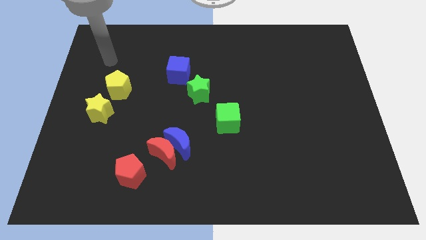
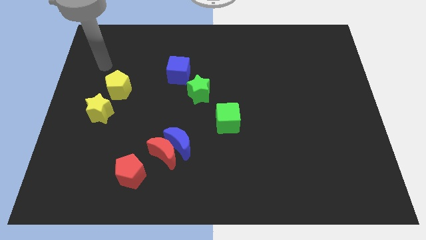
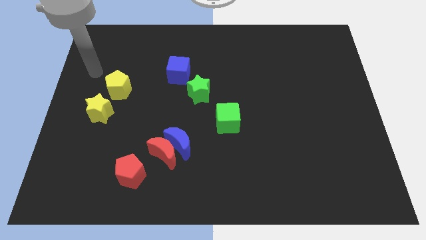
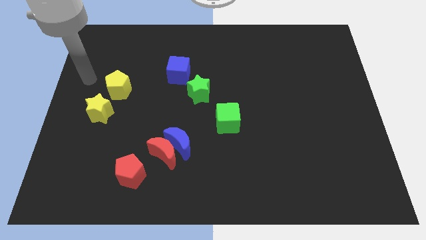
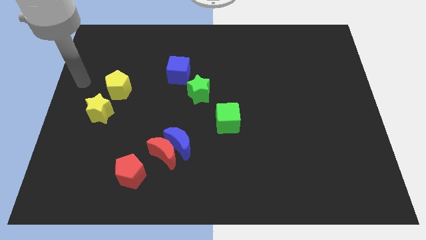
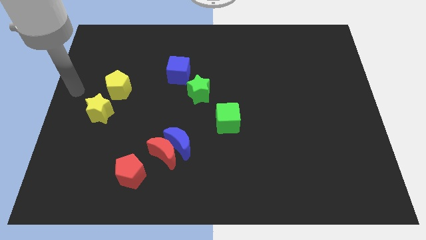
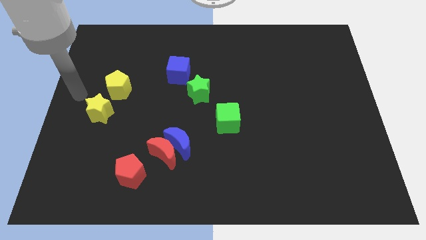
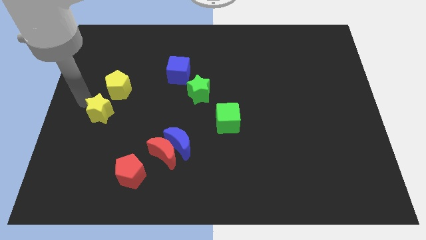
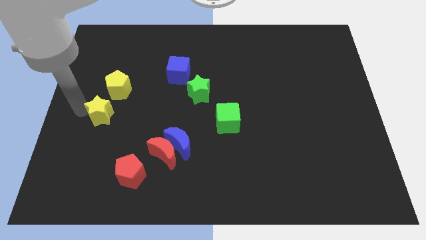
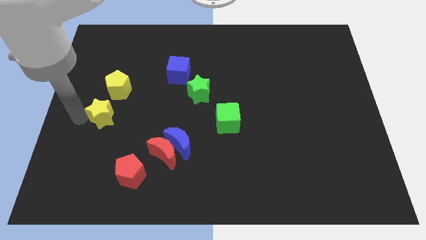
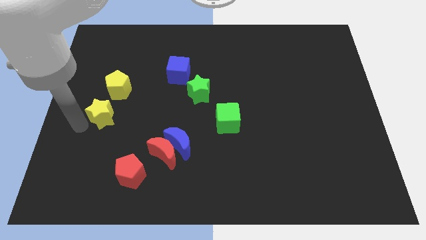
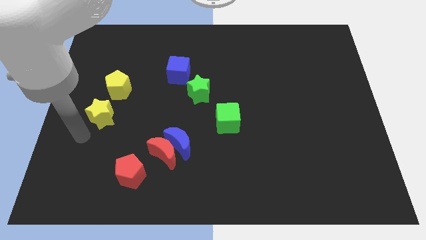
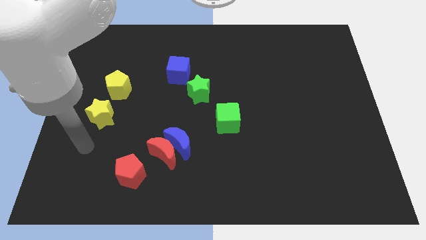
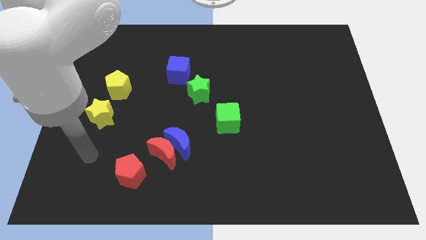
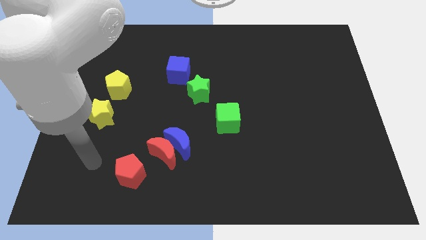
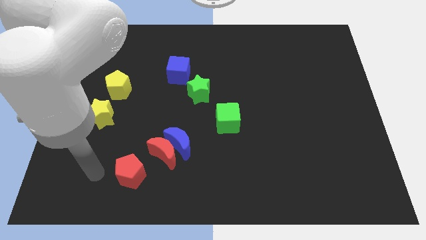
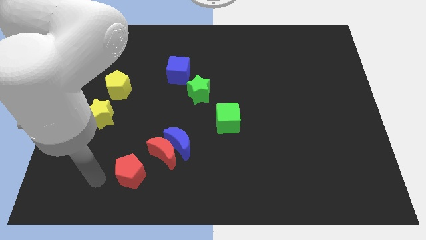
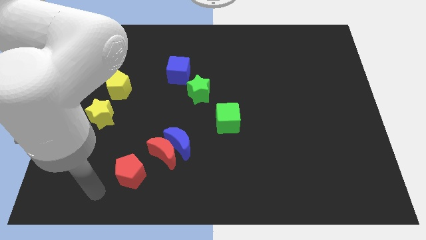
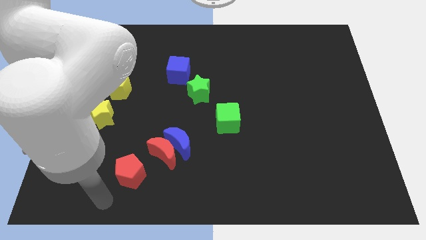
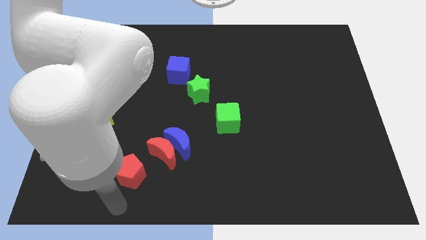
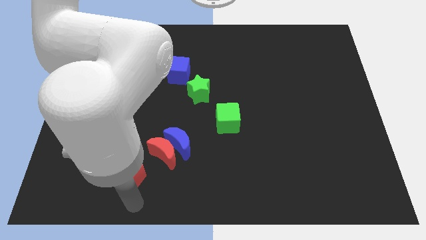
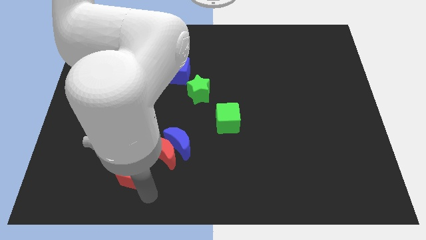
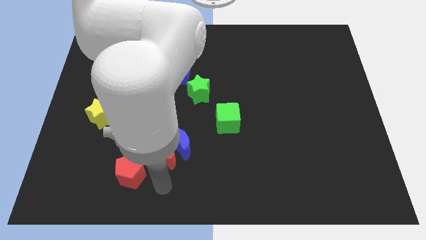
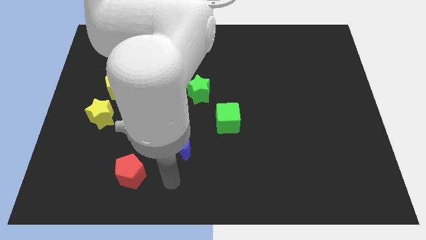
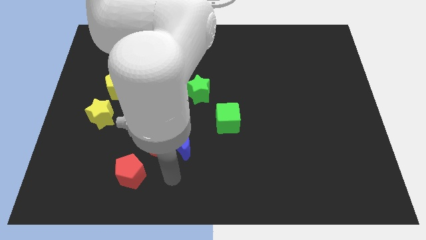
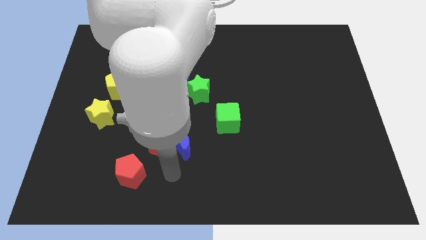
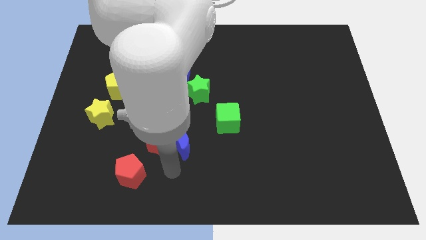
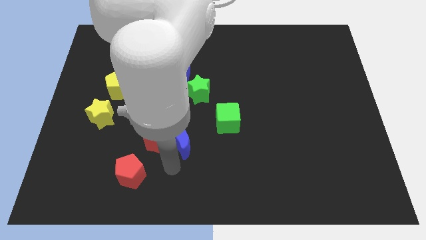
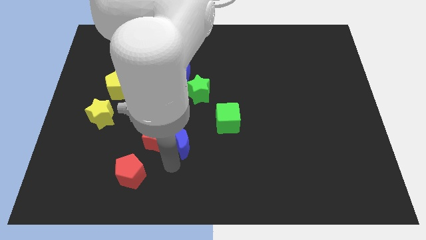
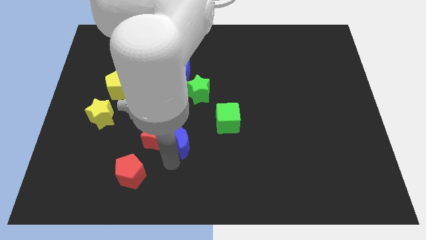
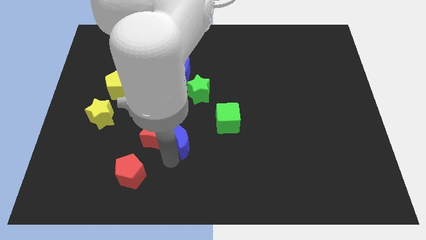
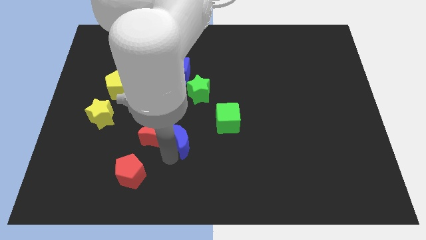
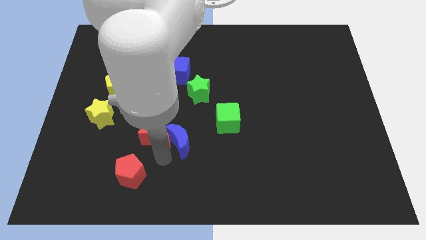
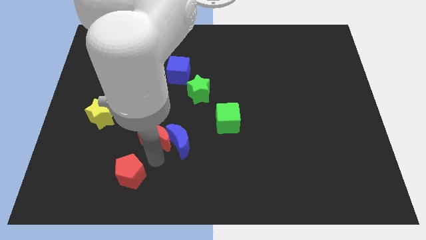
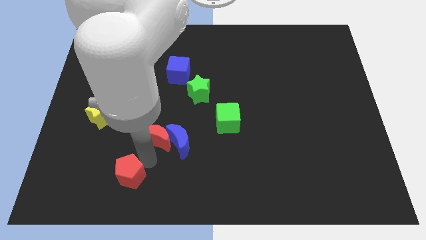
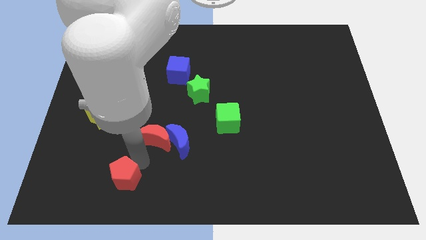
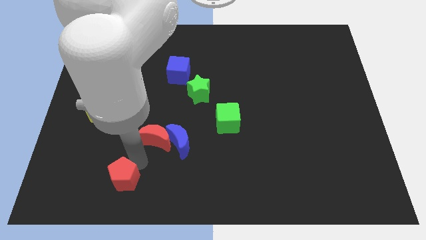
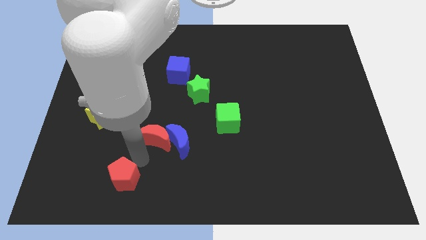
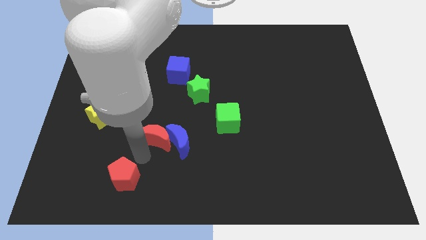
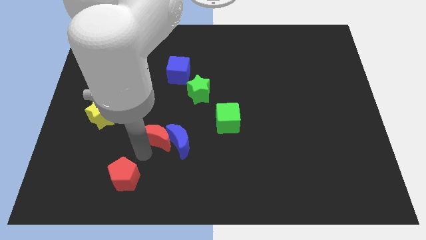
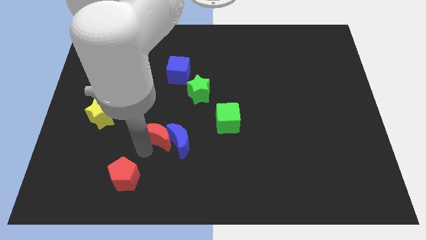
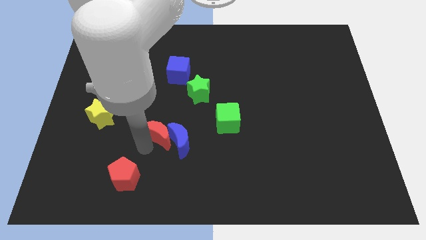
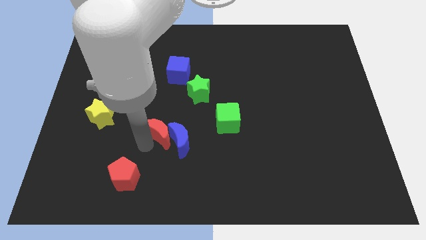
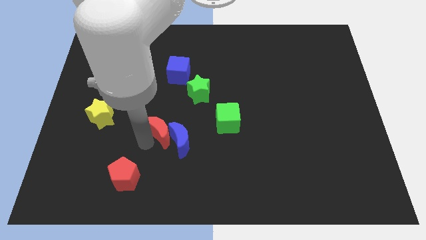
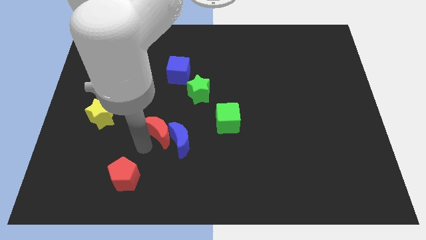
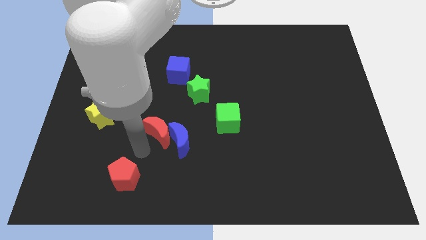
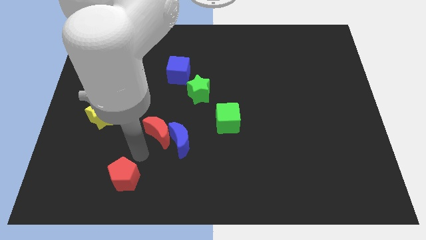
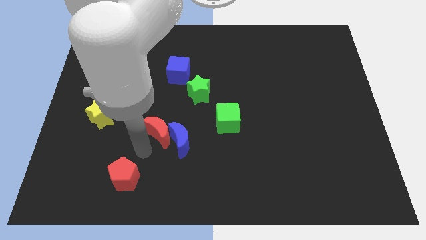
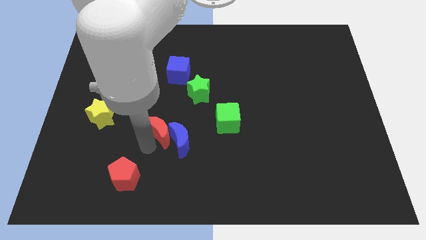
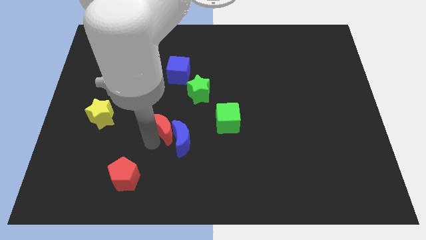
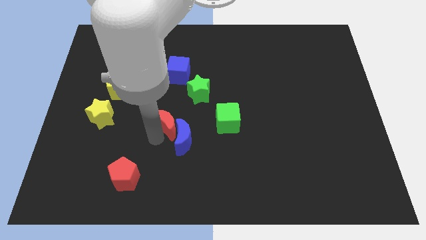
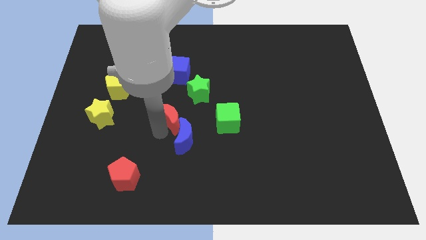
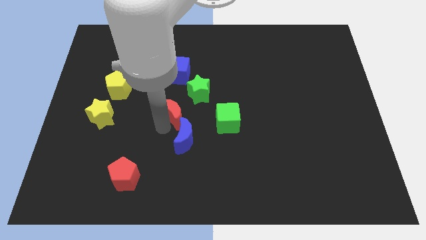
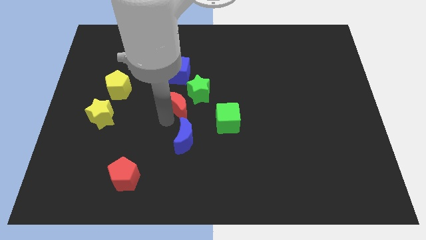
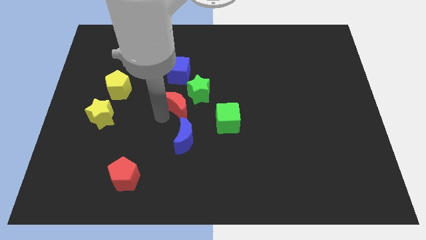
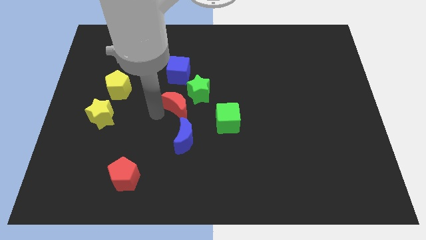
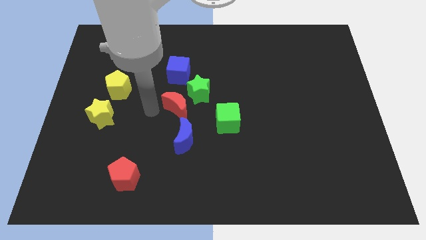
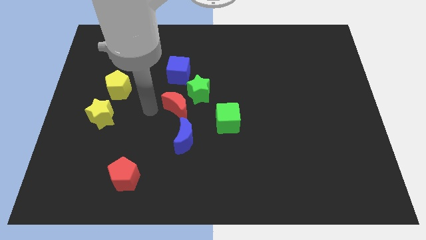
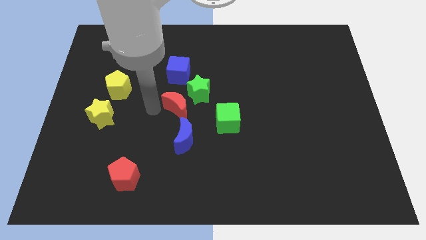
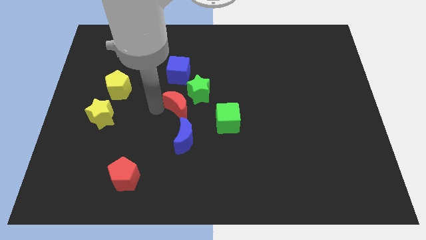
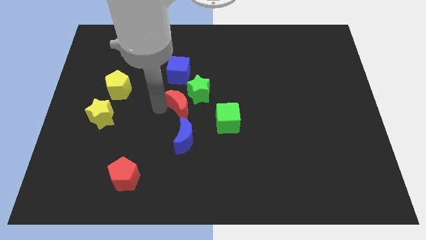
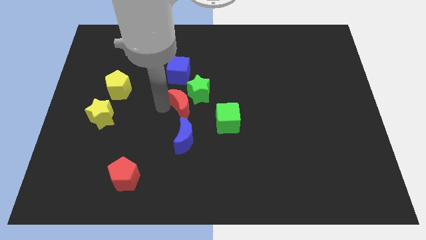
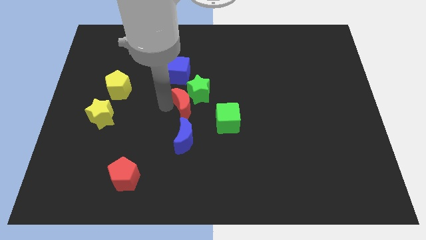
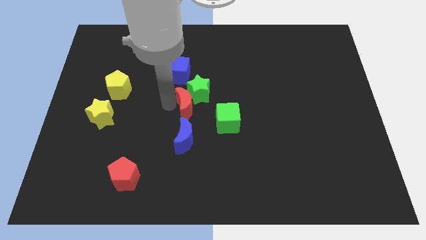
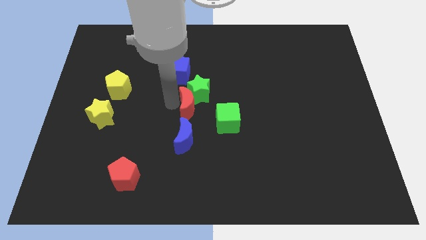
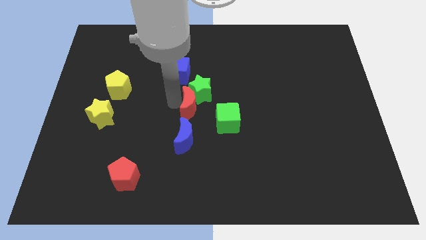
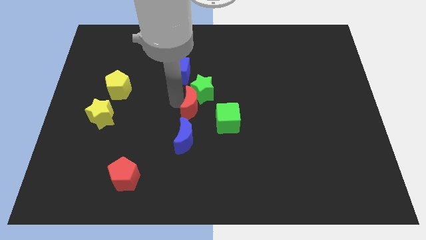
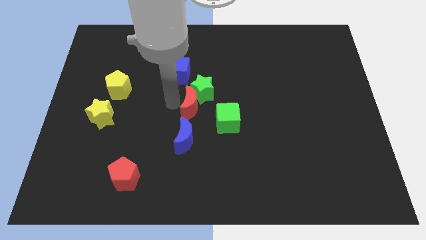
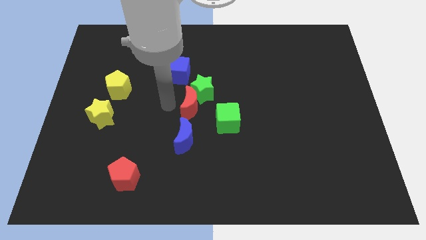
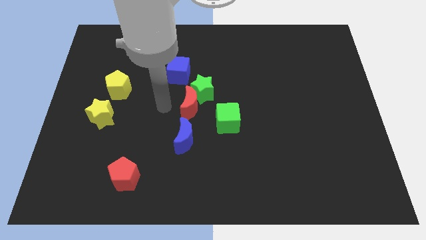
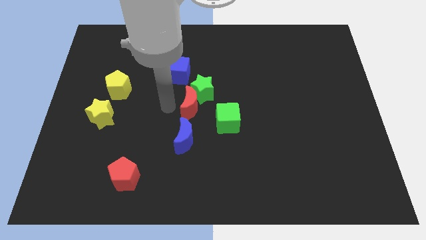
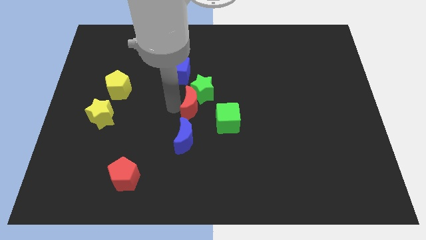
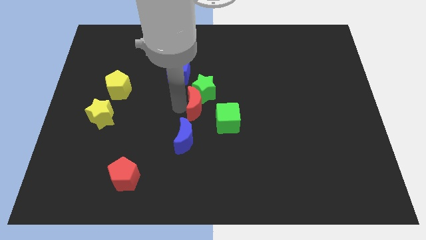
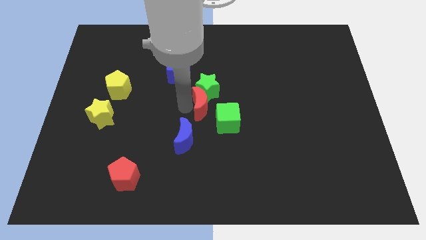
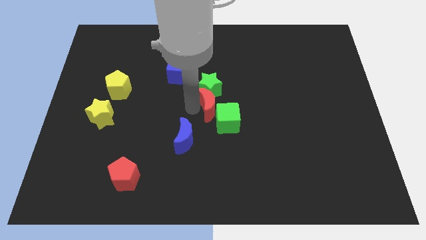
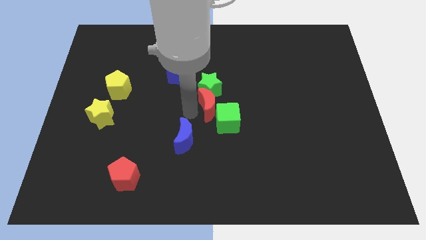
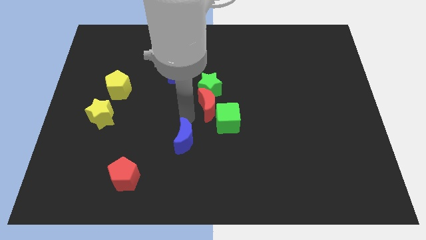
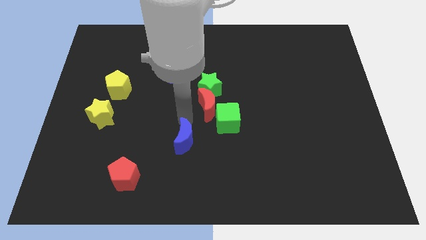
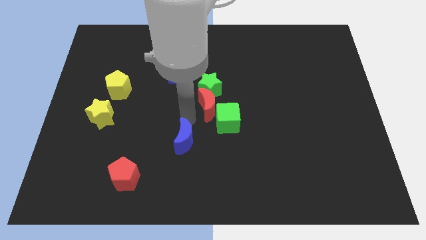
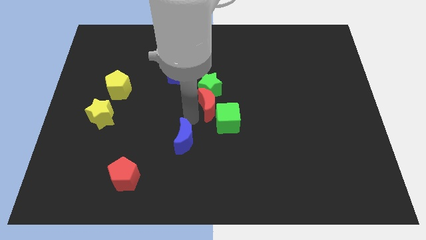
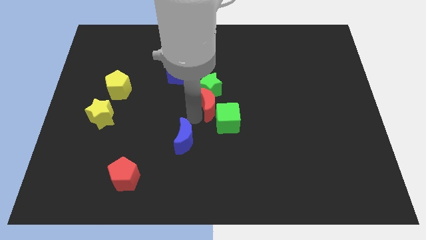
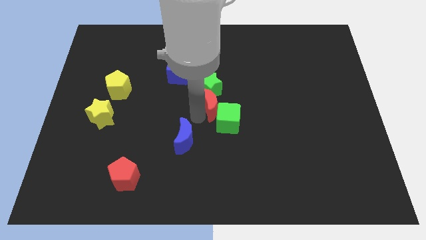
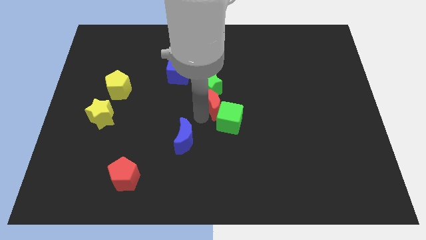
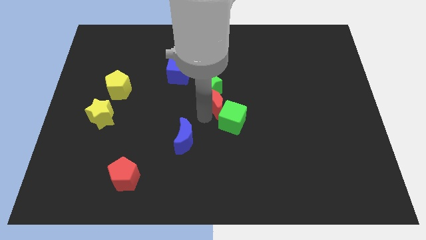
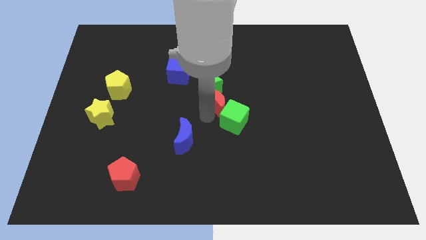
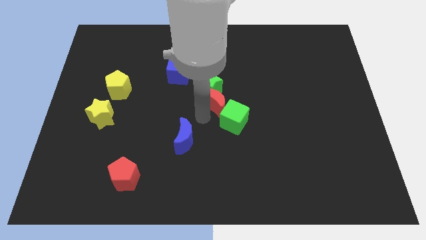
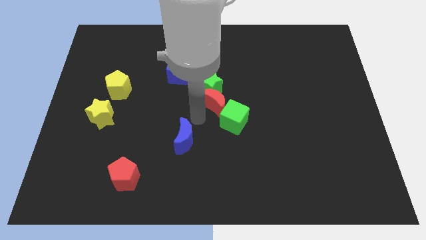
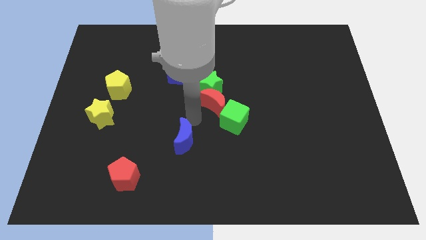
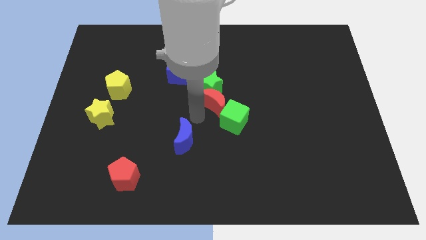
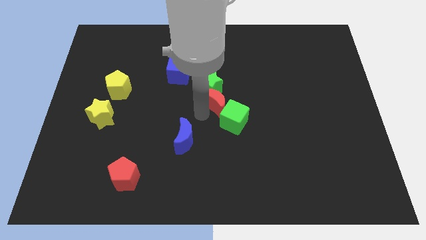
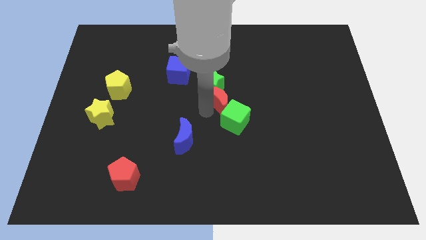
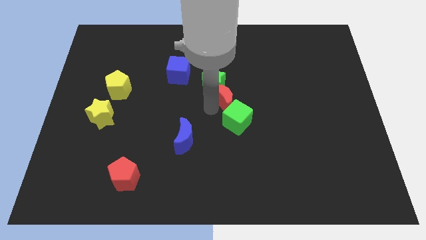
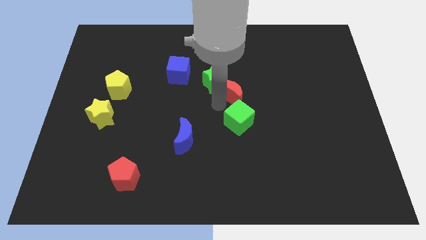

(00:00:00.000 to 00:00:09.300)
move the red moon up and to the right
